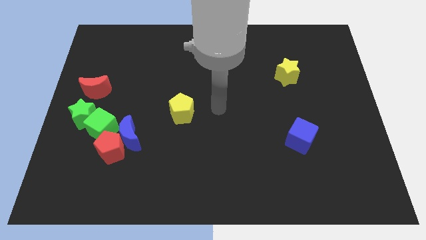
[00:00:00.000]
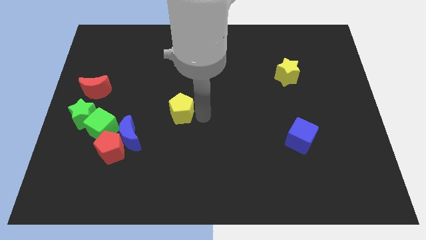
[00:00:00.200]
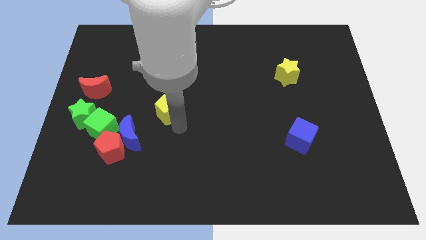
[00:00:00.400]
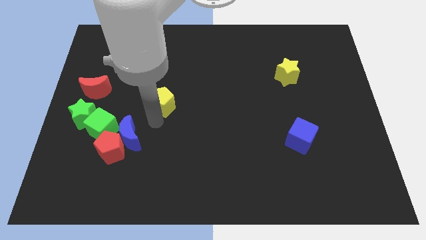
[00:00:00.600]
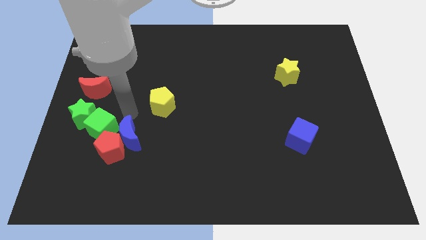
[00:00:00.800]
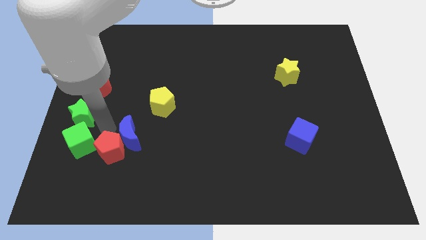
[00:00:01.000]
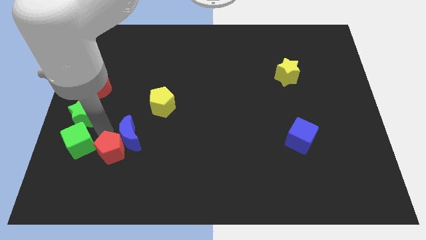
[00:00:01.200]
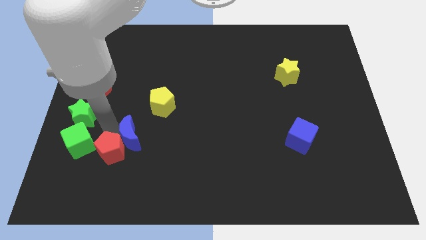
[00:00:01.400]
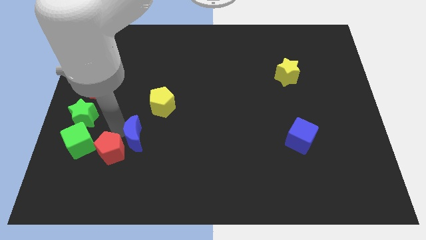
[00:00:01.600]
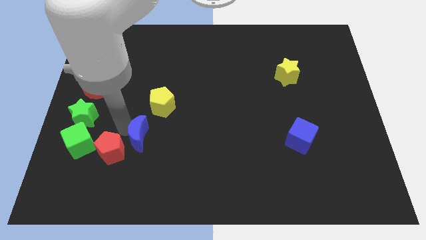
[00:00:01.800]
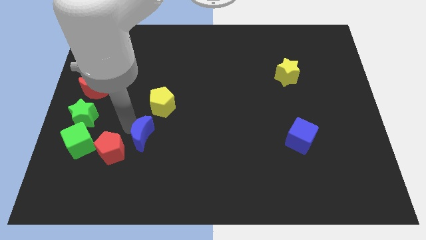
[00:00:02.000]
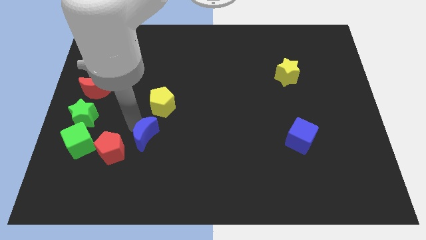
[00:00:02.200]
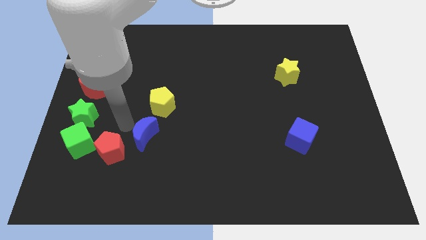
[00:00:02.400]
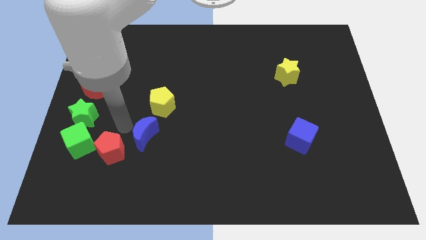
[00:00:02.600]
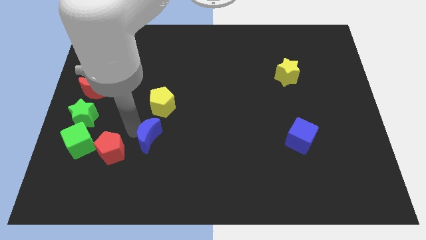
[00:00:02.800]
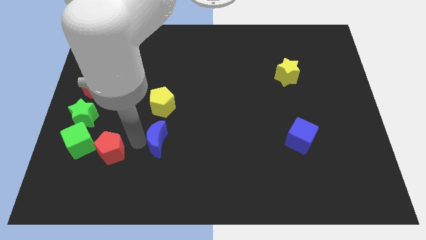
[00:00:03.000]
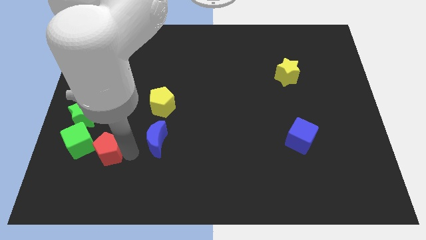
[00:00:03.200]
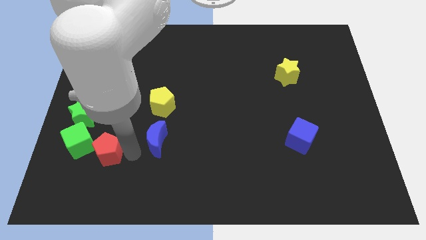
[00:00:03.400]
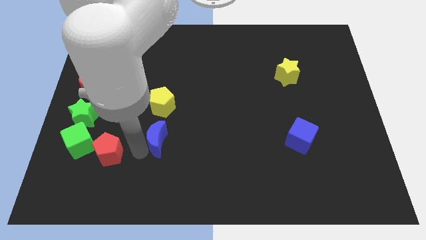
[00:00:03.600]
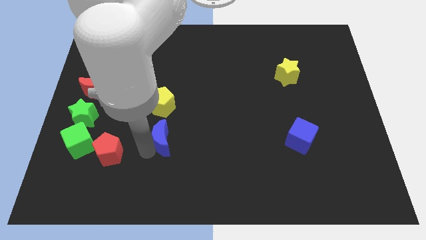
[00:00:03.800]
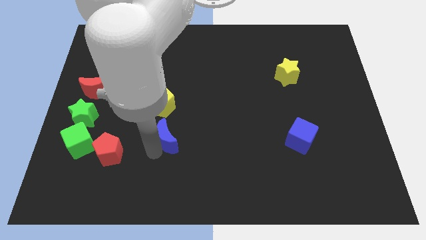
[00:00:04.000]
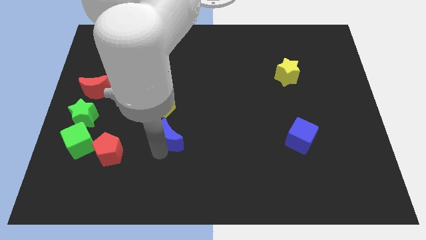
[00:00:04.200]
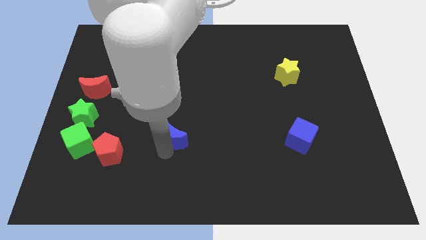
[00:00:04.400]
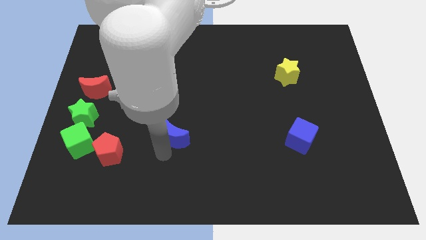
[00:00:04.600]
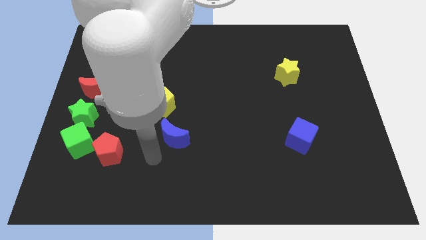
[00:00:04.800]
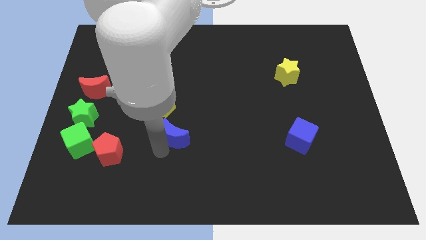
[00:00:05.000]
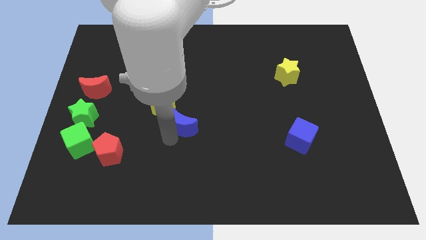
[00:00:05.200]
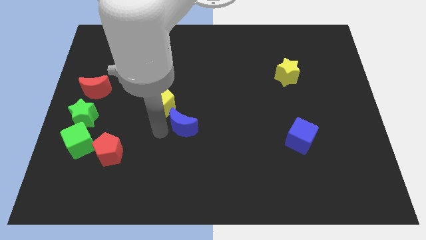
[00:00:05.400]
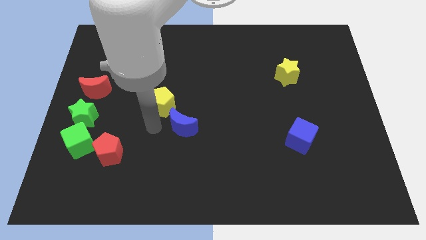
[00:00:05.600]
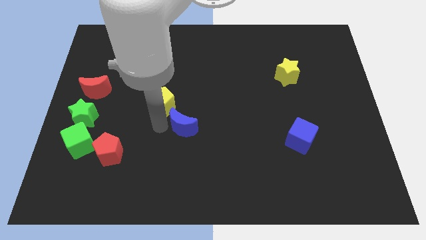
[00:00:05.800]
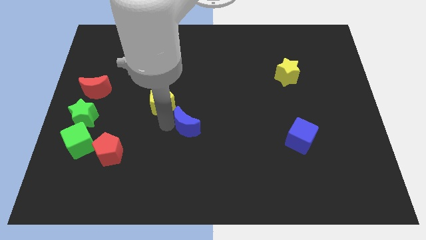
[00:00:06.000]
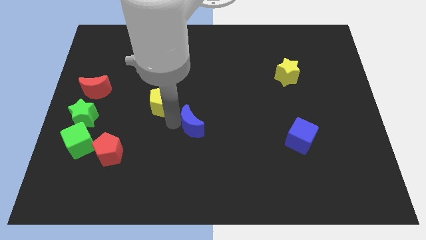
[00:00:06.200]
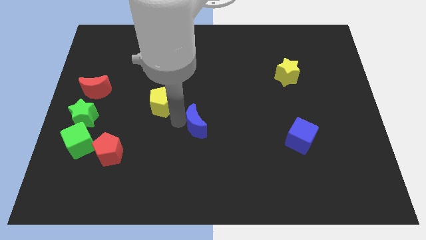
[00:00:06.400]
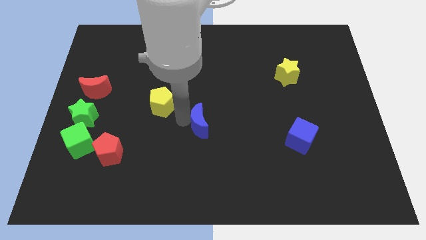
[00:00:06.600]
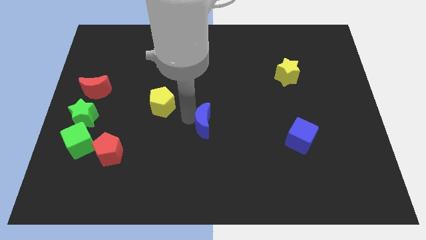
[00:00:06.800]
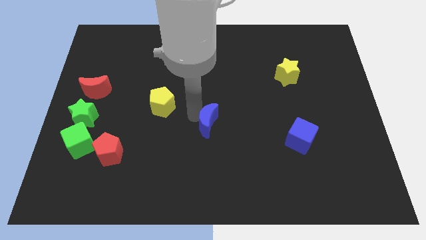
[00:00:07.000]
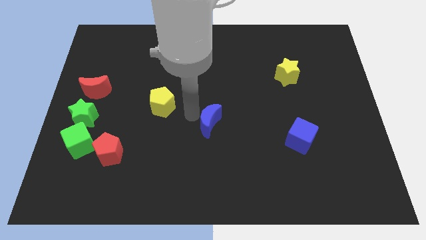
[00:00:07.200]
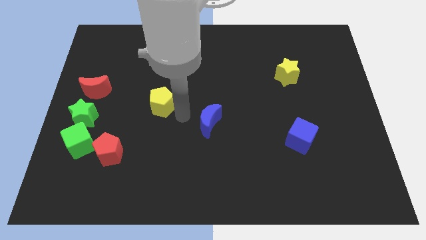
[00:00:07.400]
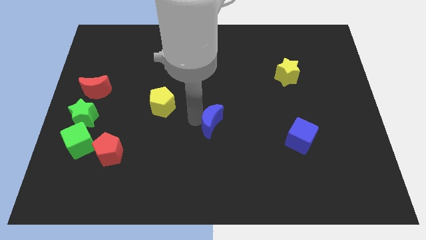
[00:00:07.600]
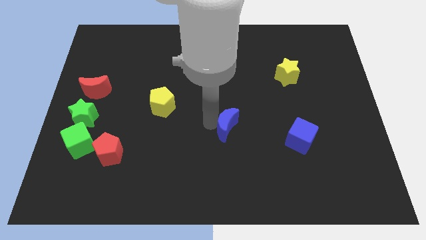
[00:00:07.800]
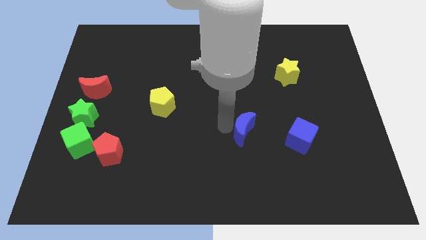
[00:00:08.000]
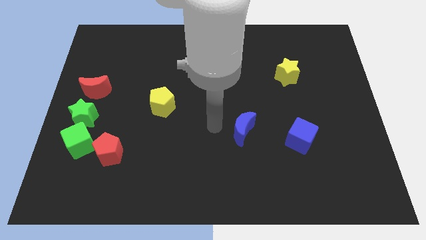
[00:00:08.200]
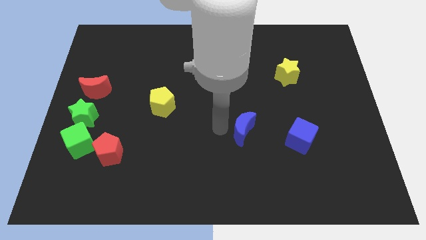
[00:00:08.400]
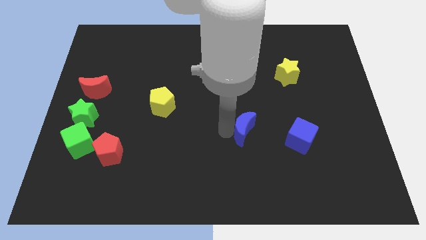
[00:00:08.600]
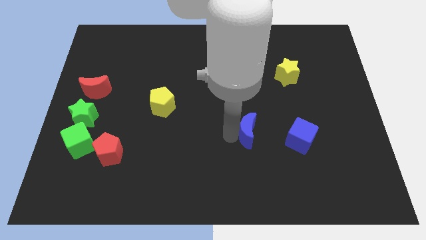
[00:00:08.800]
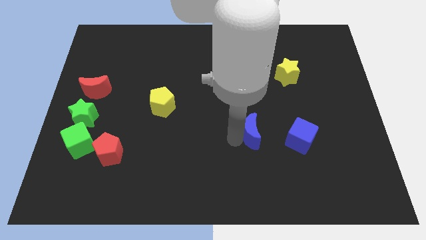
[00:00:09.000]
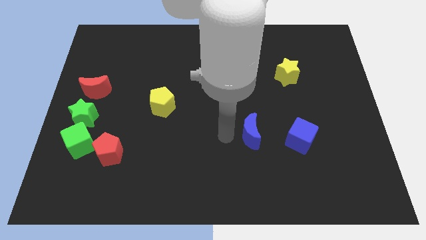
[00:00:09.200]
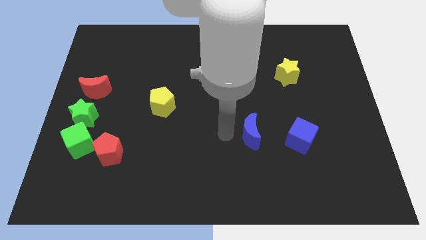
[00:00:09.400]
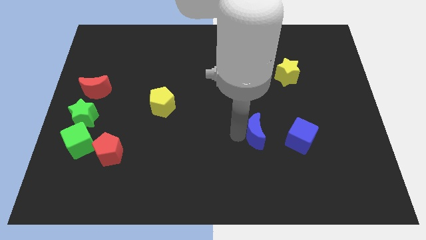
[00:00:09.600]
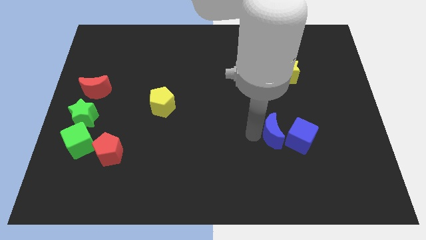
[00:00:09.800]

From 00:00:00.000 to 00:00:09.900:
move the blue moon towards the blue cube

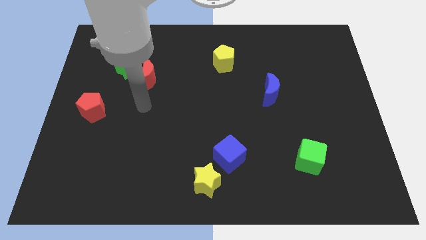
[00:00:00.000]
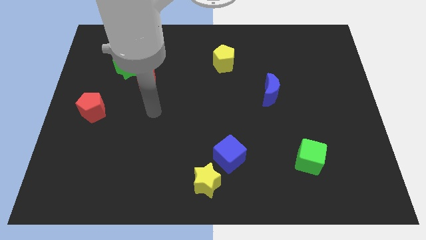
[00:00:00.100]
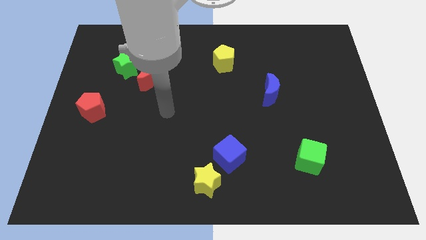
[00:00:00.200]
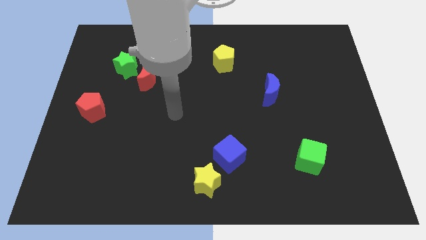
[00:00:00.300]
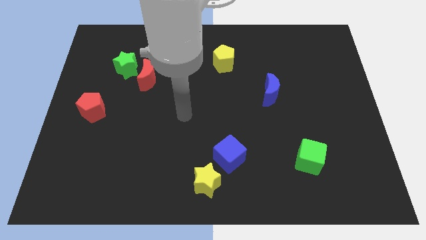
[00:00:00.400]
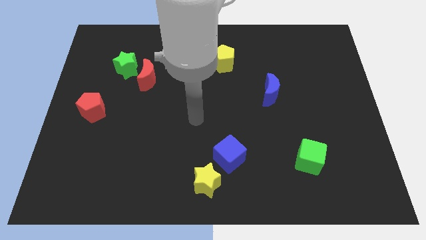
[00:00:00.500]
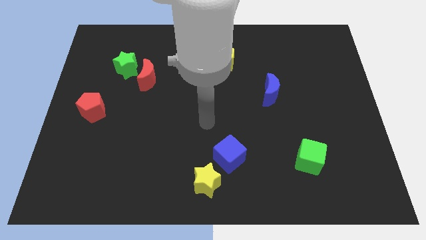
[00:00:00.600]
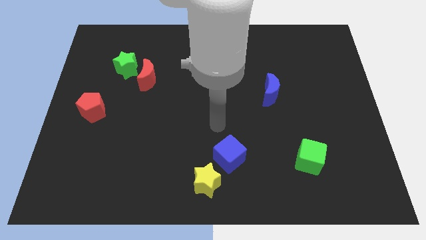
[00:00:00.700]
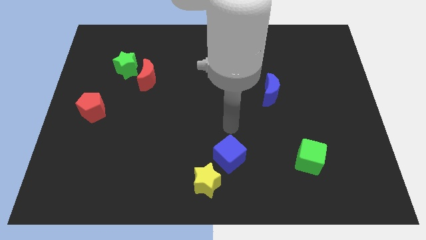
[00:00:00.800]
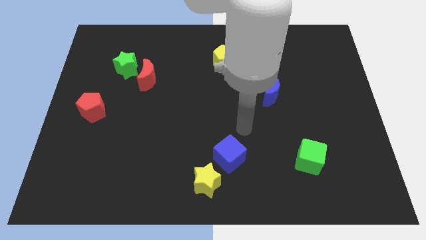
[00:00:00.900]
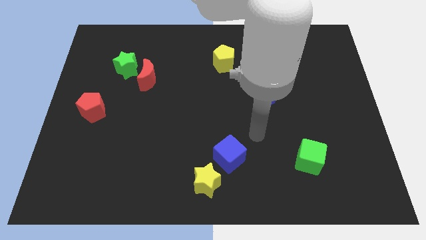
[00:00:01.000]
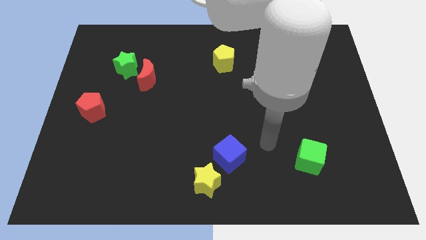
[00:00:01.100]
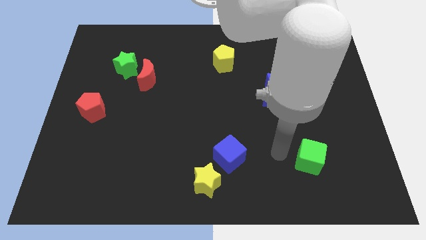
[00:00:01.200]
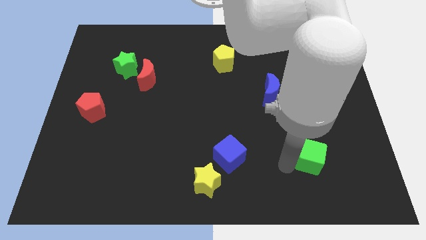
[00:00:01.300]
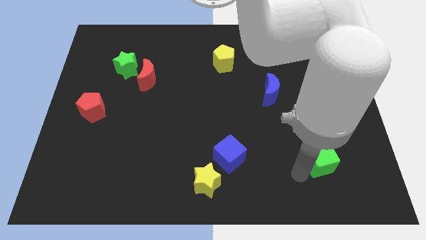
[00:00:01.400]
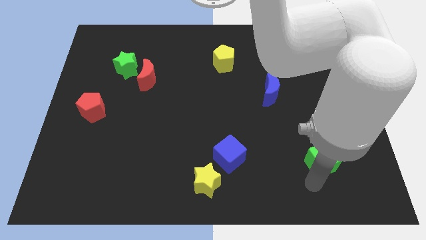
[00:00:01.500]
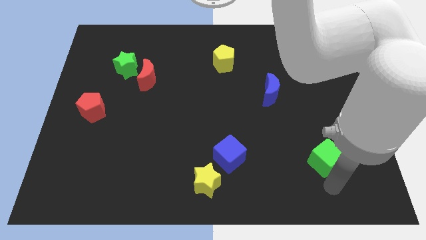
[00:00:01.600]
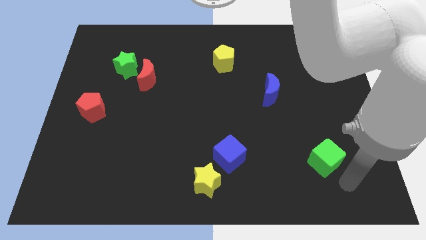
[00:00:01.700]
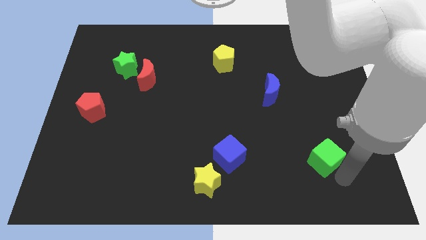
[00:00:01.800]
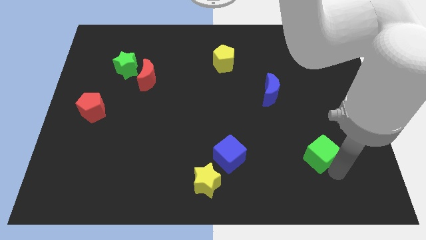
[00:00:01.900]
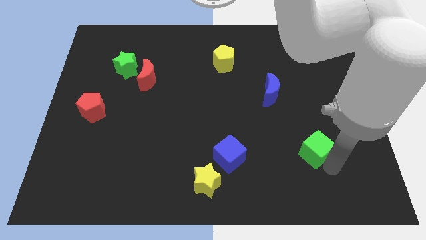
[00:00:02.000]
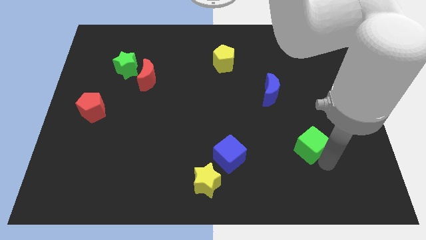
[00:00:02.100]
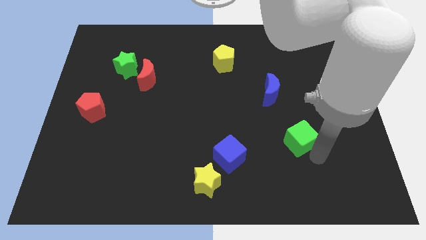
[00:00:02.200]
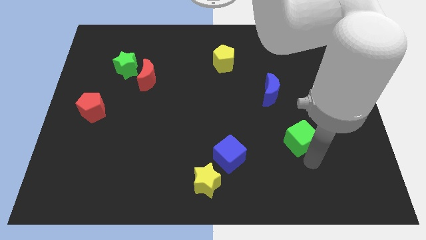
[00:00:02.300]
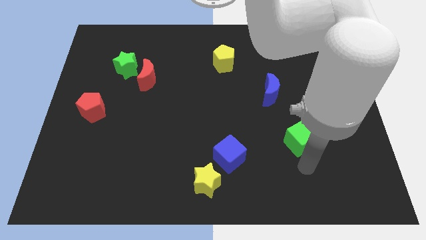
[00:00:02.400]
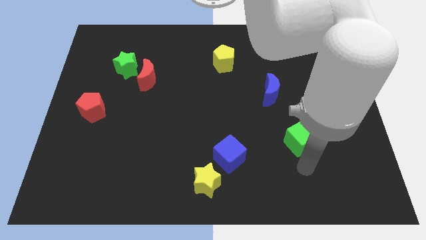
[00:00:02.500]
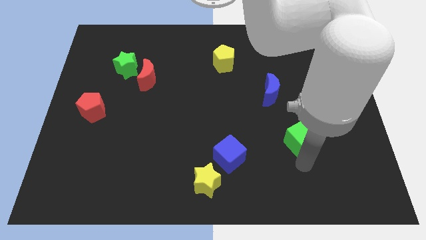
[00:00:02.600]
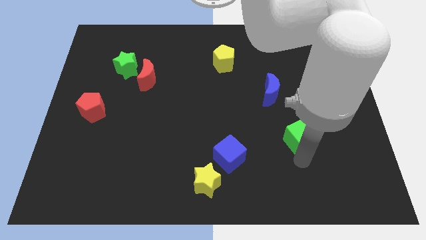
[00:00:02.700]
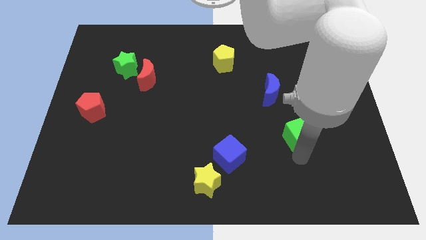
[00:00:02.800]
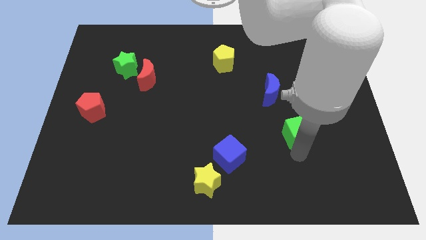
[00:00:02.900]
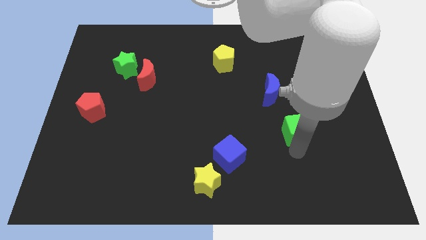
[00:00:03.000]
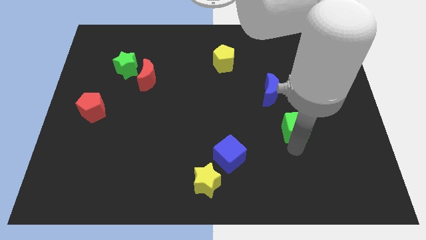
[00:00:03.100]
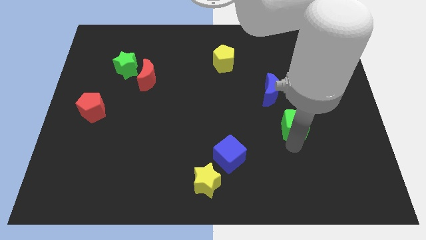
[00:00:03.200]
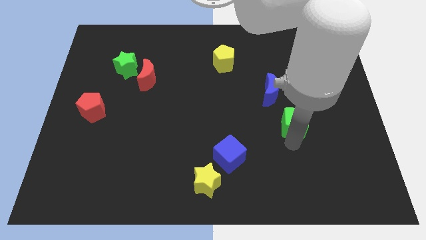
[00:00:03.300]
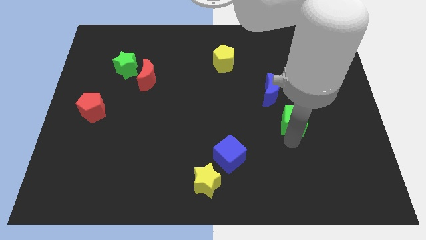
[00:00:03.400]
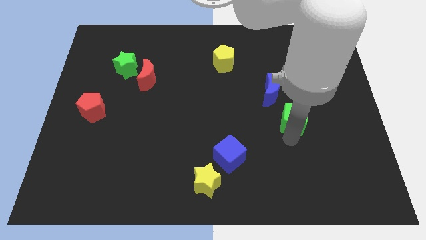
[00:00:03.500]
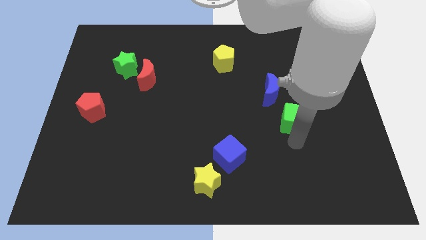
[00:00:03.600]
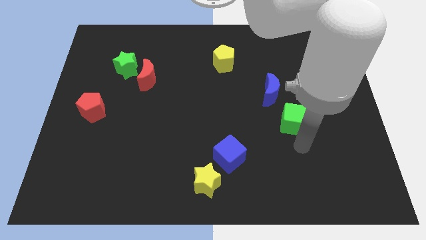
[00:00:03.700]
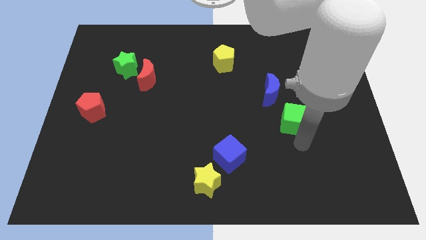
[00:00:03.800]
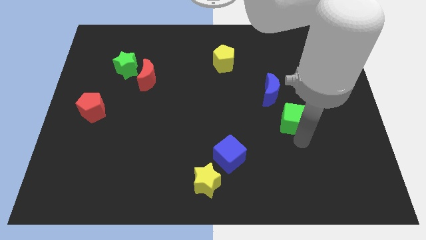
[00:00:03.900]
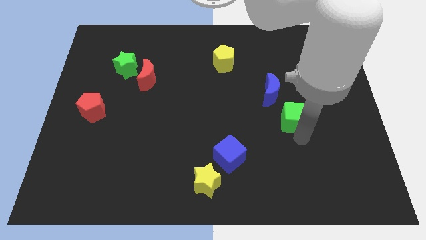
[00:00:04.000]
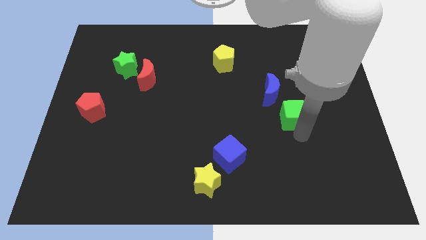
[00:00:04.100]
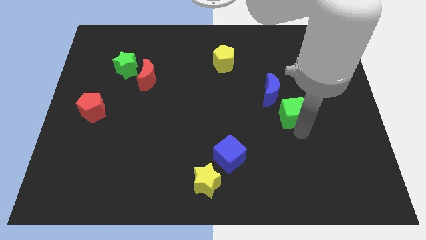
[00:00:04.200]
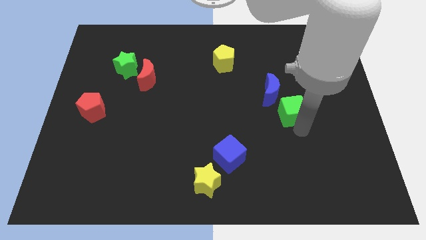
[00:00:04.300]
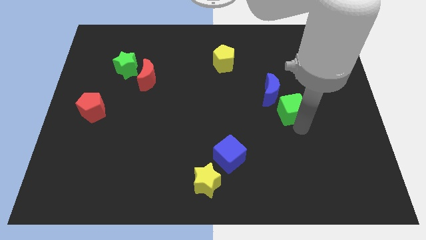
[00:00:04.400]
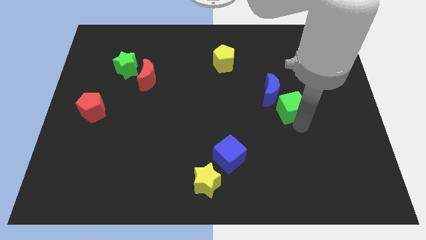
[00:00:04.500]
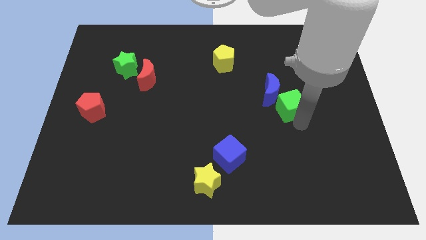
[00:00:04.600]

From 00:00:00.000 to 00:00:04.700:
move the green cube close to the blue moon
